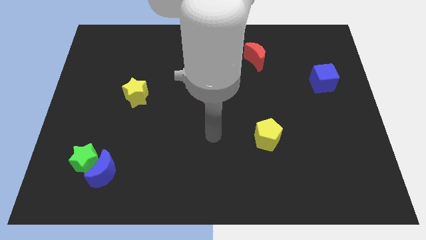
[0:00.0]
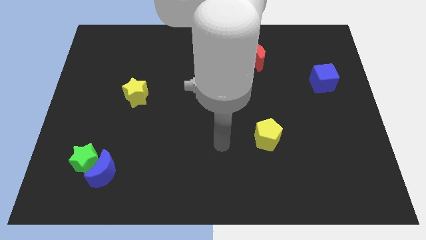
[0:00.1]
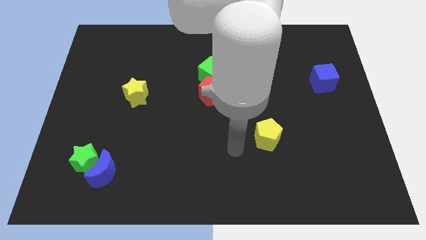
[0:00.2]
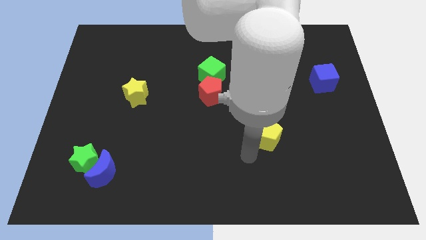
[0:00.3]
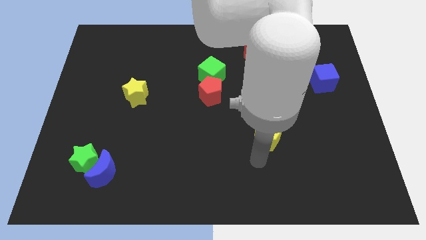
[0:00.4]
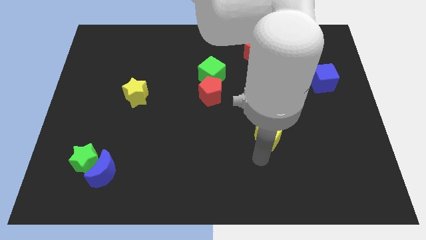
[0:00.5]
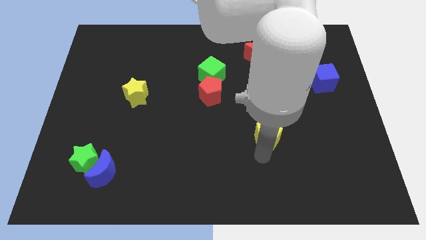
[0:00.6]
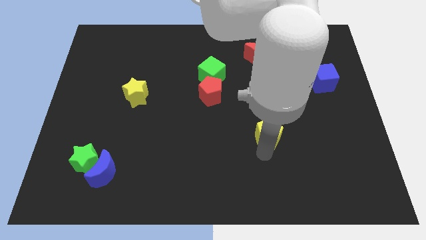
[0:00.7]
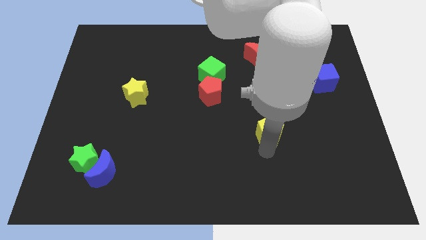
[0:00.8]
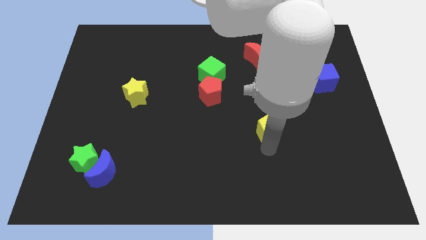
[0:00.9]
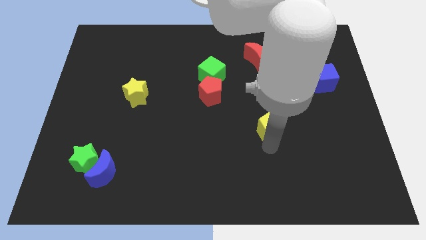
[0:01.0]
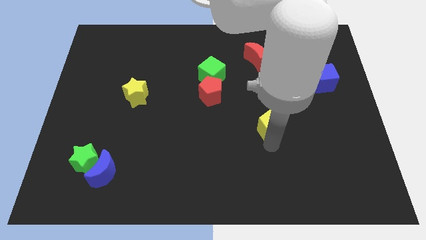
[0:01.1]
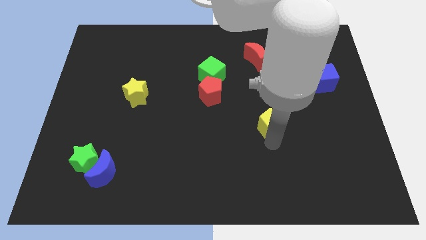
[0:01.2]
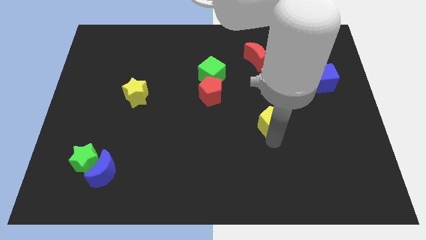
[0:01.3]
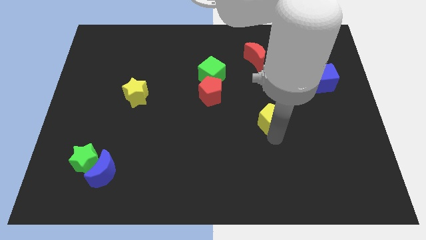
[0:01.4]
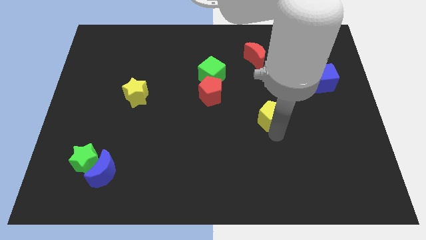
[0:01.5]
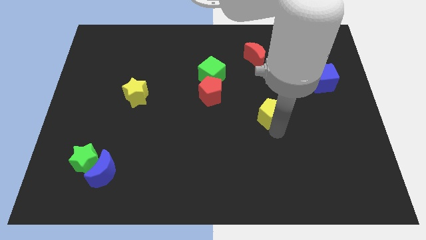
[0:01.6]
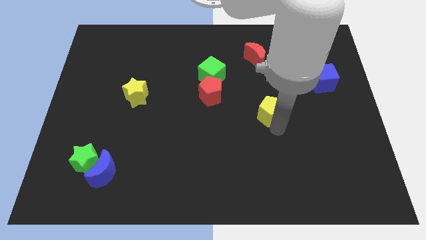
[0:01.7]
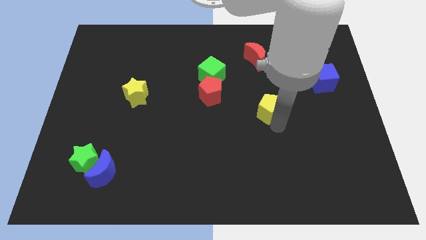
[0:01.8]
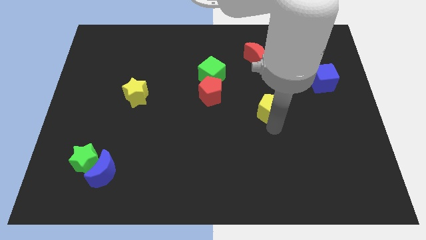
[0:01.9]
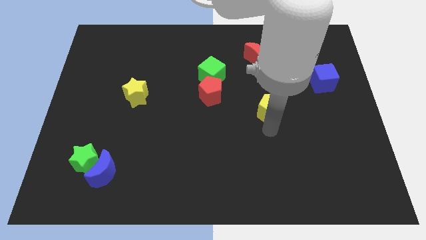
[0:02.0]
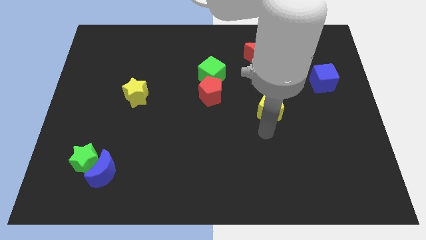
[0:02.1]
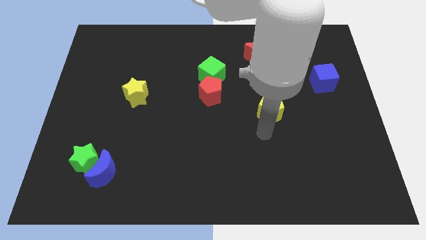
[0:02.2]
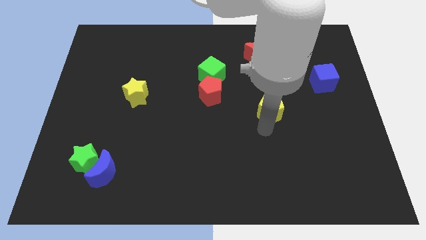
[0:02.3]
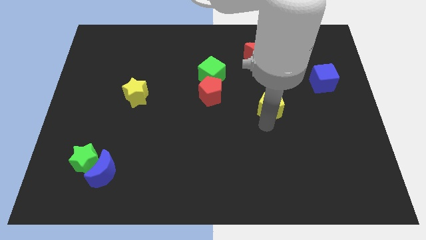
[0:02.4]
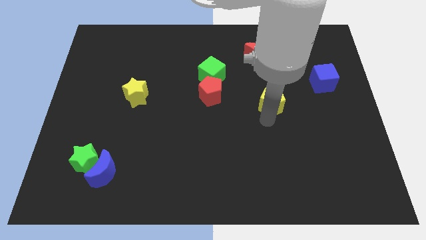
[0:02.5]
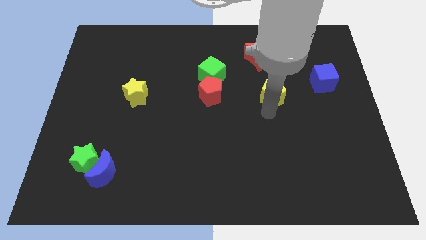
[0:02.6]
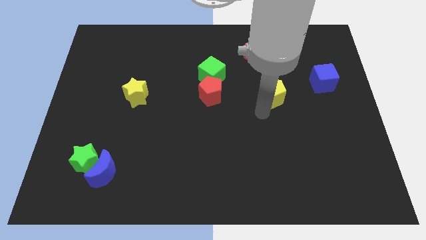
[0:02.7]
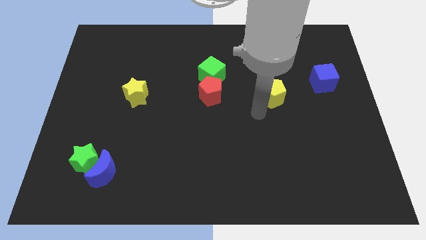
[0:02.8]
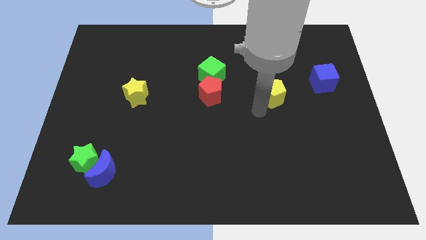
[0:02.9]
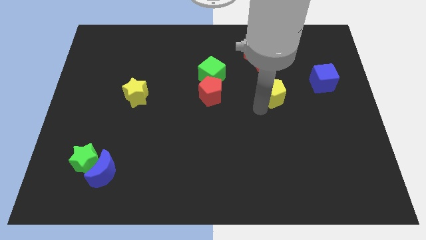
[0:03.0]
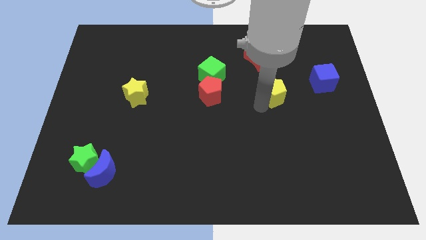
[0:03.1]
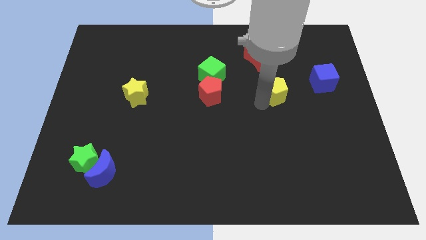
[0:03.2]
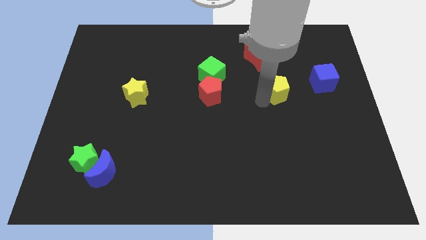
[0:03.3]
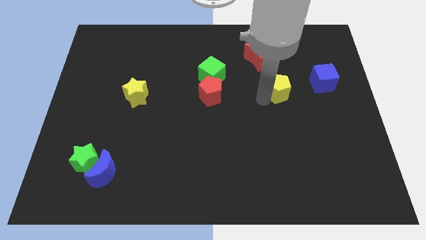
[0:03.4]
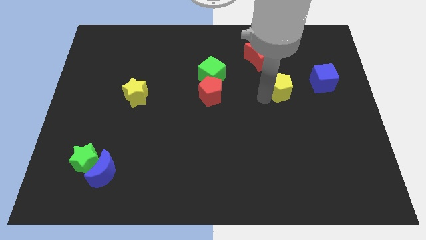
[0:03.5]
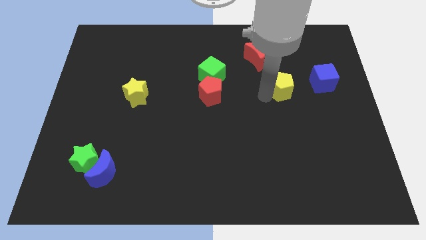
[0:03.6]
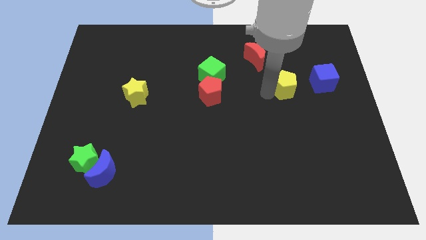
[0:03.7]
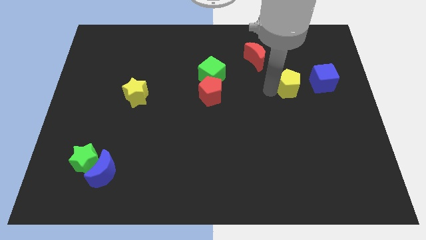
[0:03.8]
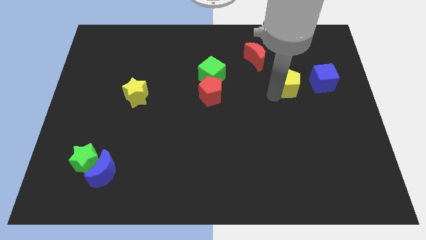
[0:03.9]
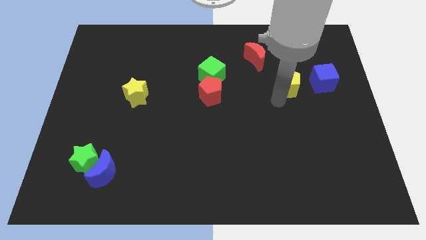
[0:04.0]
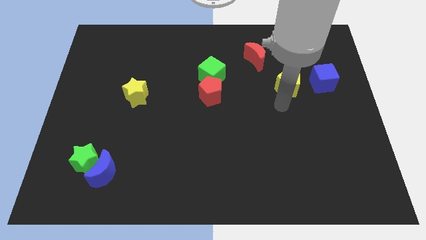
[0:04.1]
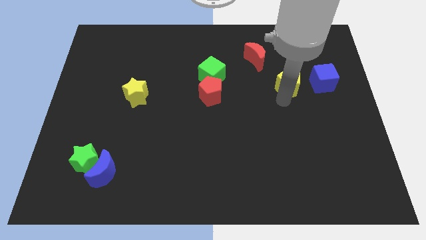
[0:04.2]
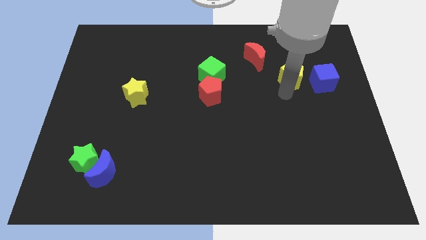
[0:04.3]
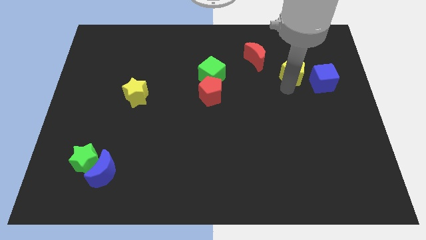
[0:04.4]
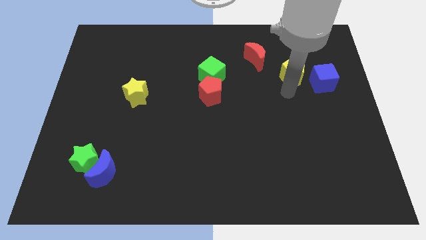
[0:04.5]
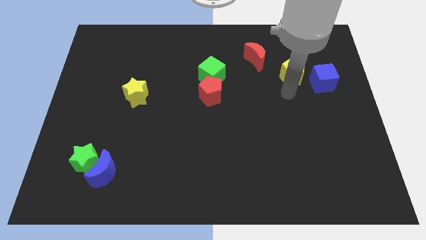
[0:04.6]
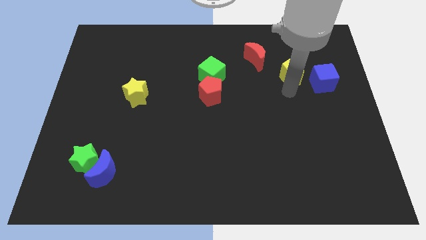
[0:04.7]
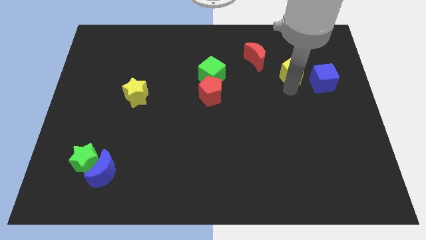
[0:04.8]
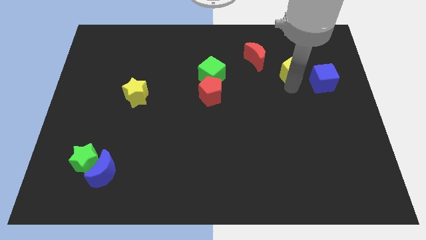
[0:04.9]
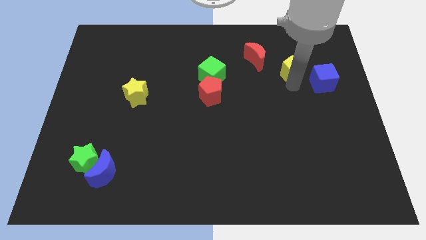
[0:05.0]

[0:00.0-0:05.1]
push the yellow pentagon to the right of the red moon

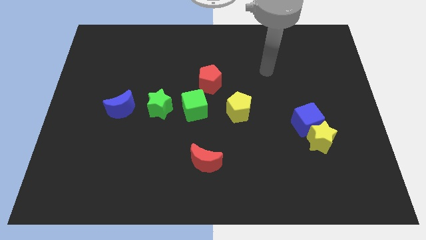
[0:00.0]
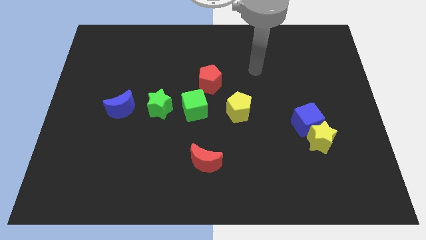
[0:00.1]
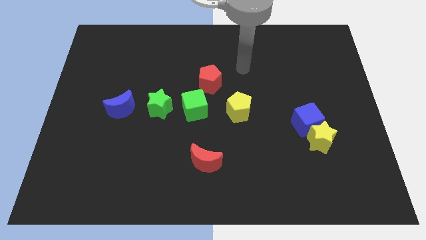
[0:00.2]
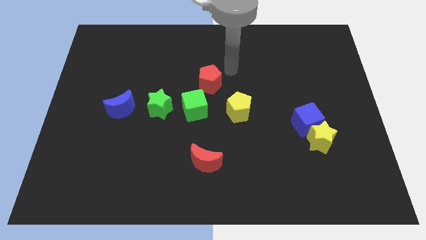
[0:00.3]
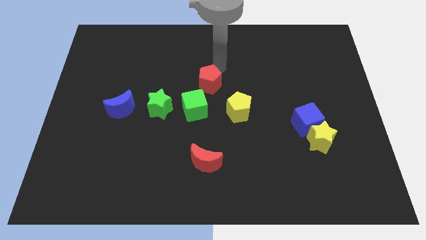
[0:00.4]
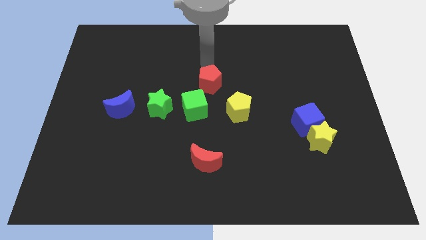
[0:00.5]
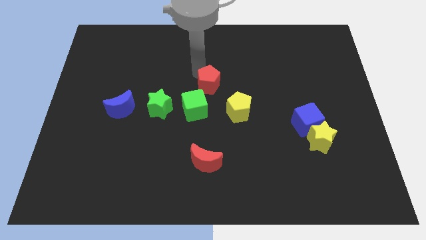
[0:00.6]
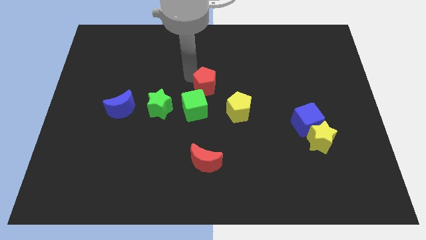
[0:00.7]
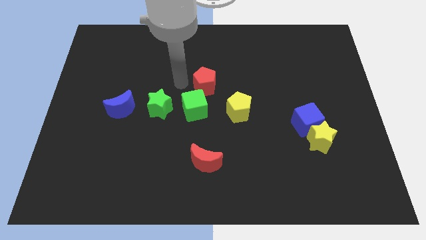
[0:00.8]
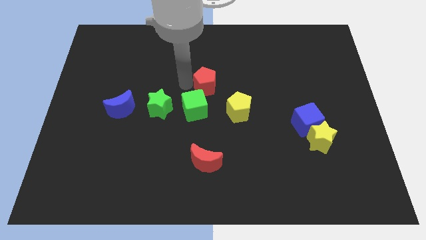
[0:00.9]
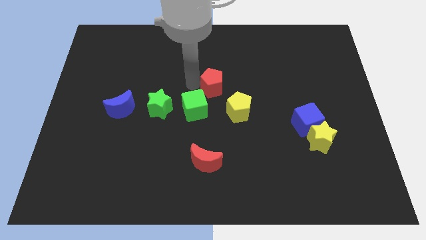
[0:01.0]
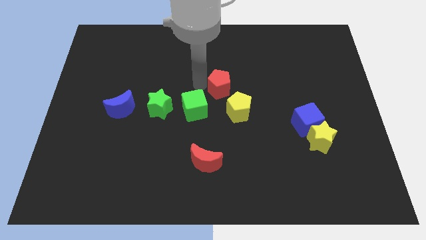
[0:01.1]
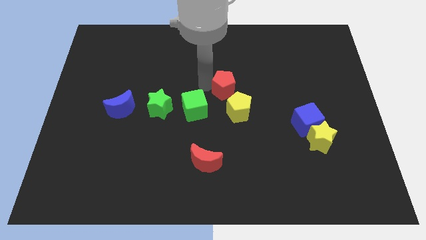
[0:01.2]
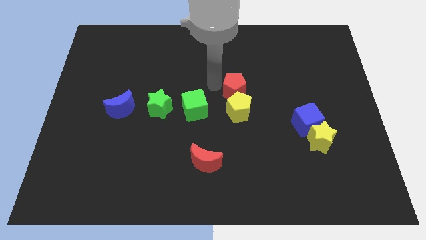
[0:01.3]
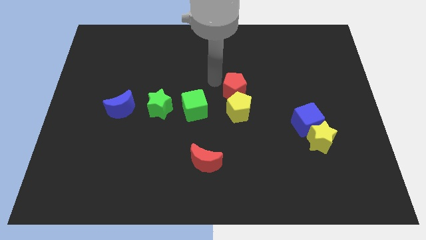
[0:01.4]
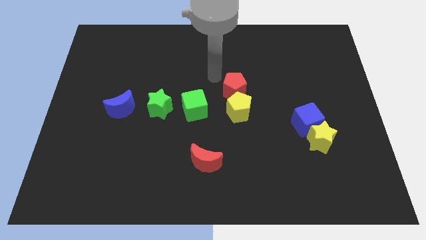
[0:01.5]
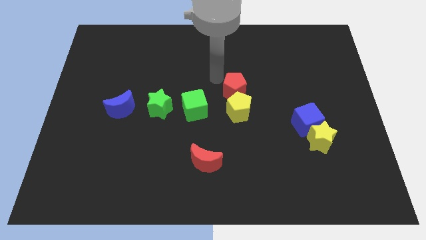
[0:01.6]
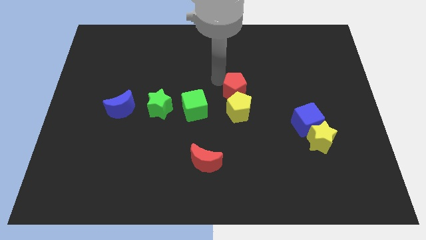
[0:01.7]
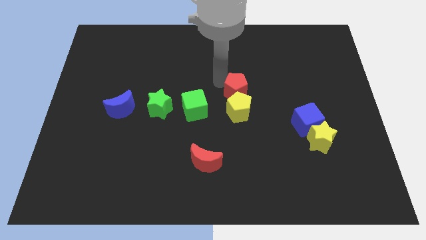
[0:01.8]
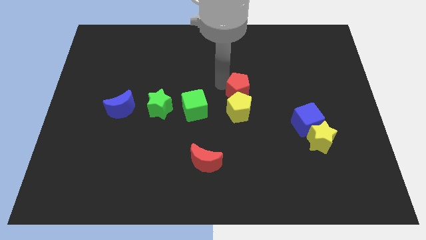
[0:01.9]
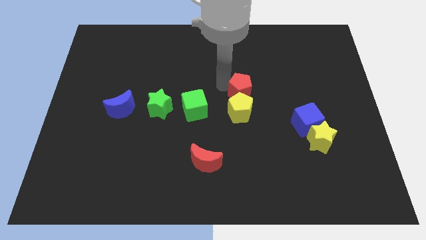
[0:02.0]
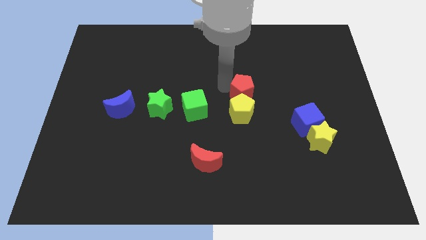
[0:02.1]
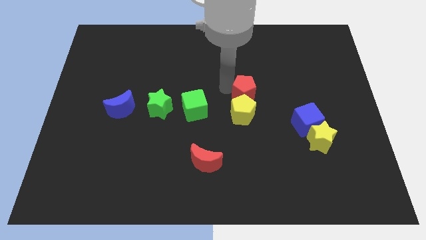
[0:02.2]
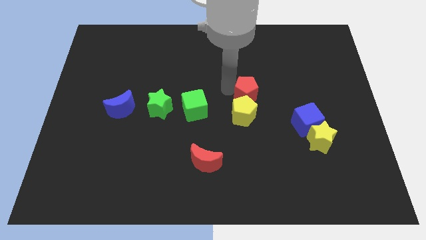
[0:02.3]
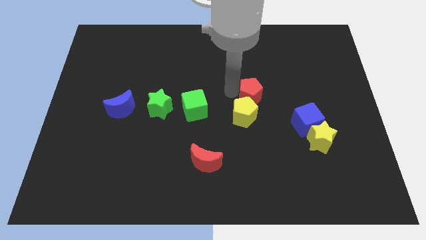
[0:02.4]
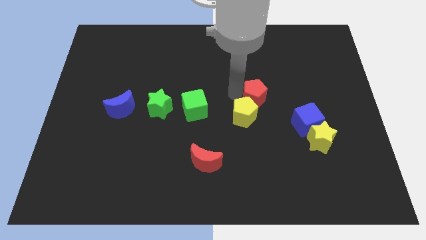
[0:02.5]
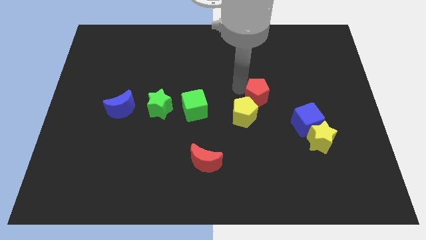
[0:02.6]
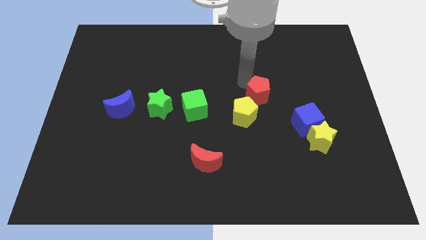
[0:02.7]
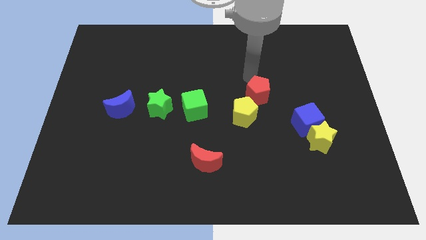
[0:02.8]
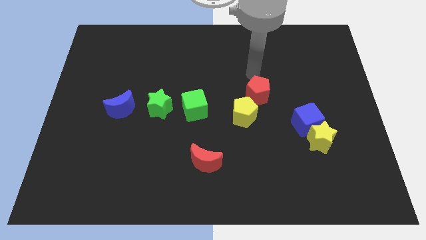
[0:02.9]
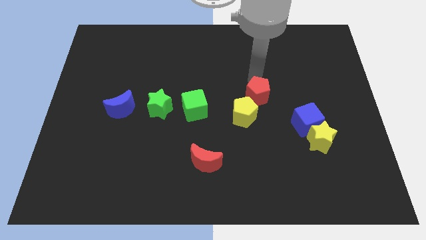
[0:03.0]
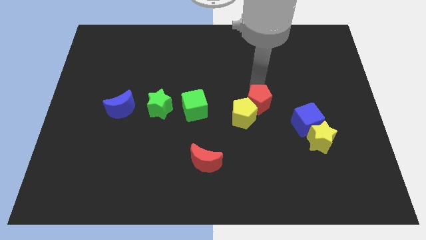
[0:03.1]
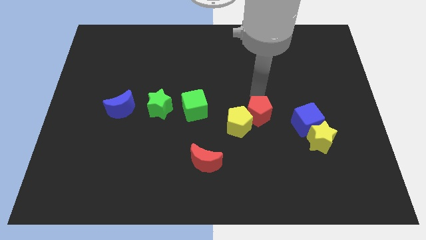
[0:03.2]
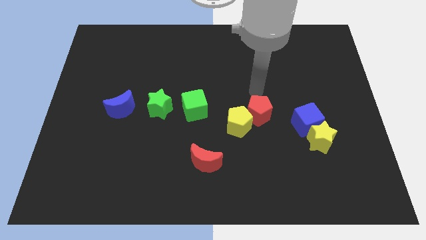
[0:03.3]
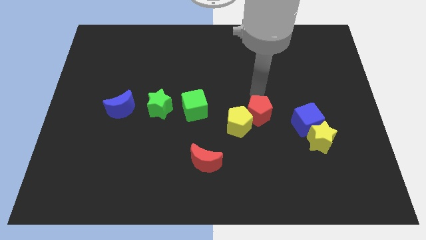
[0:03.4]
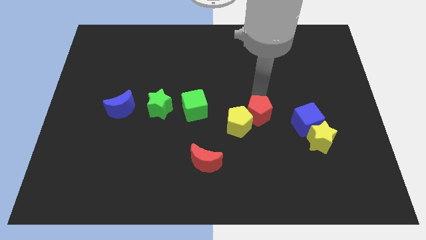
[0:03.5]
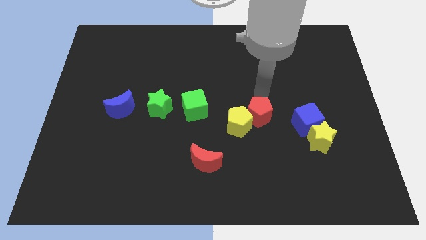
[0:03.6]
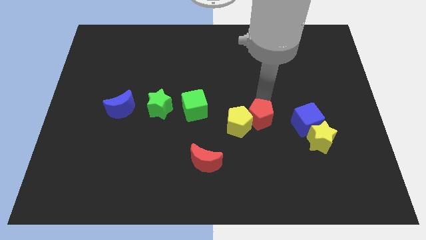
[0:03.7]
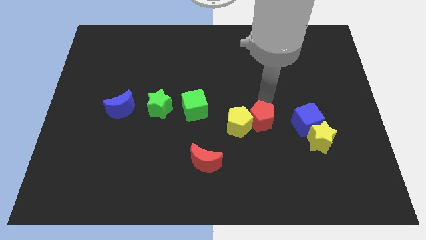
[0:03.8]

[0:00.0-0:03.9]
move the red pentagon diagonally down and to the right of the yellow pentagon
